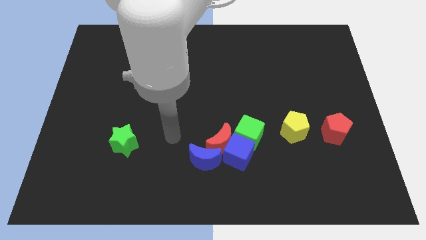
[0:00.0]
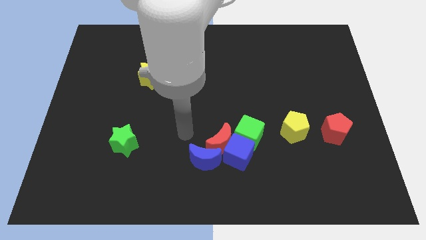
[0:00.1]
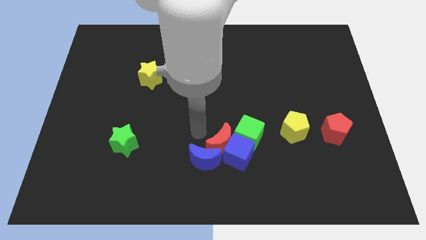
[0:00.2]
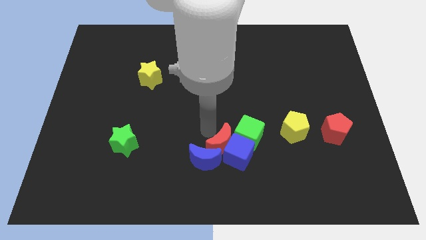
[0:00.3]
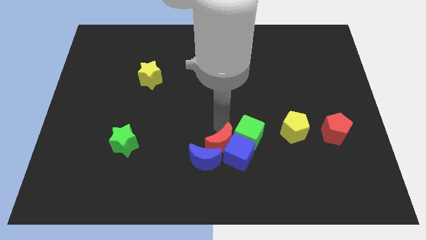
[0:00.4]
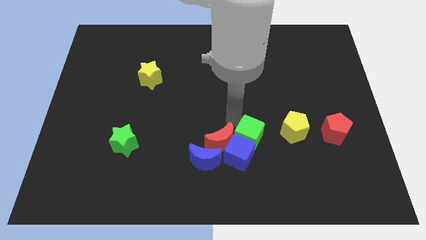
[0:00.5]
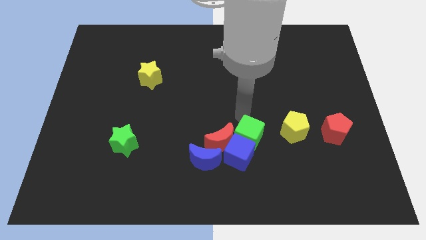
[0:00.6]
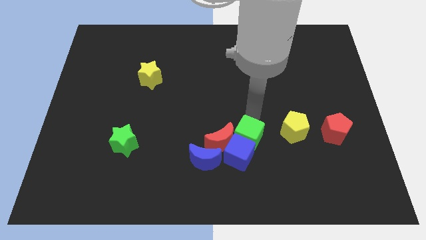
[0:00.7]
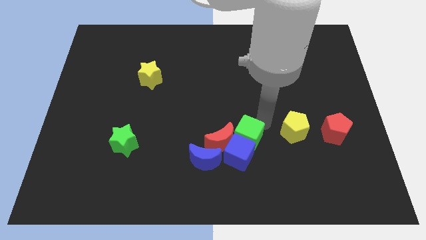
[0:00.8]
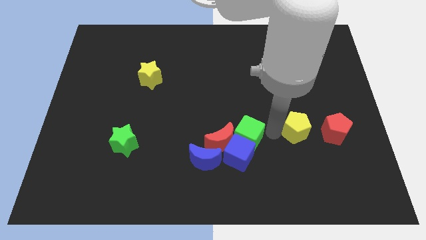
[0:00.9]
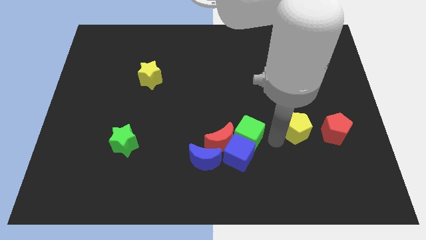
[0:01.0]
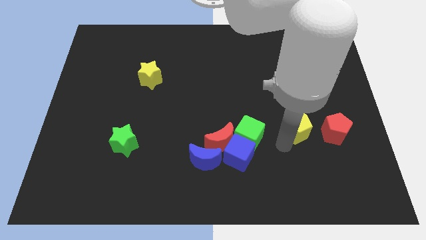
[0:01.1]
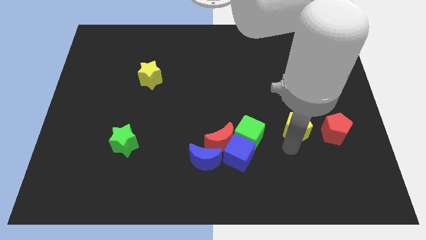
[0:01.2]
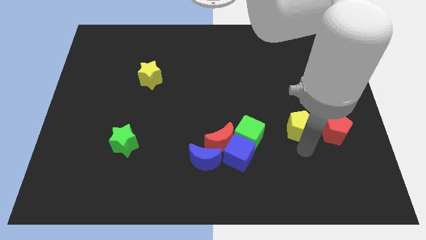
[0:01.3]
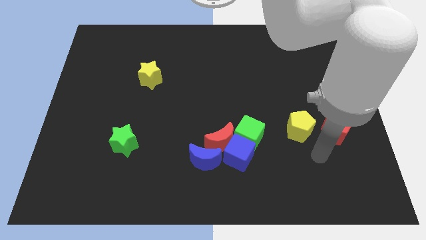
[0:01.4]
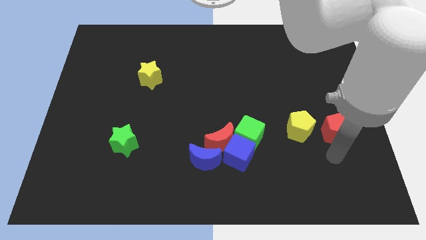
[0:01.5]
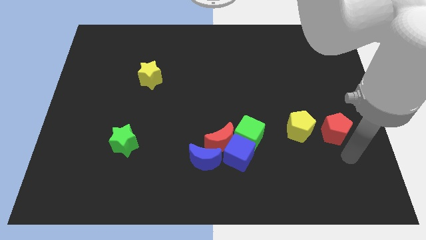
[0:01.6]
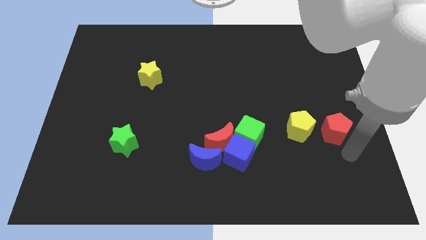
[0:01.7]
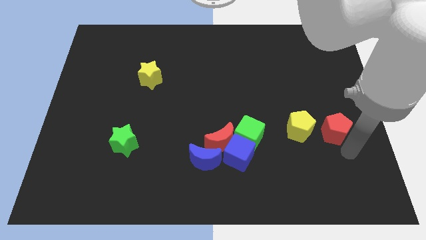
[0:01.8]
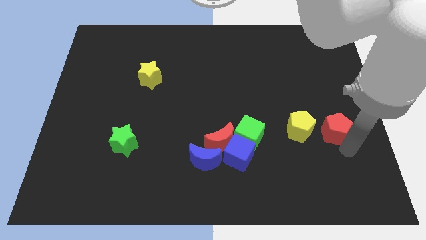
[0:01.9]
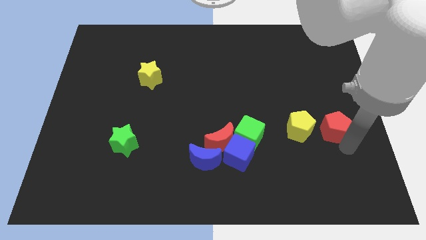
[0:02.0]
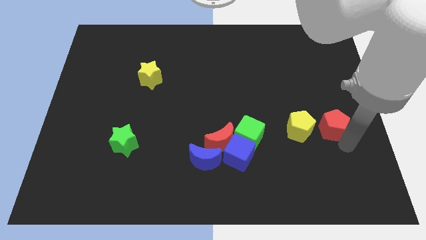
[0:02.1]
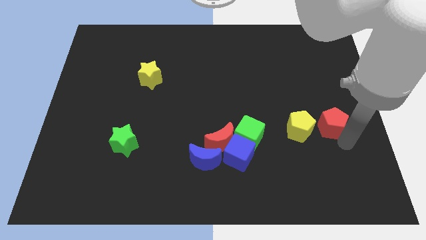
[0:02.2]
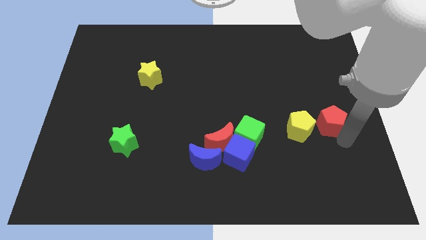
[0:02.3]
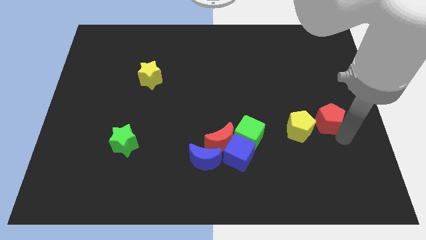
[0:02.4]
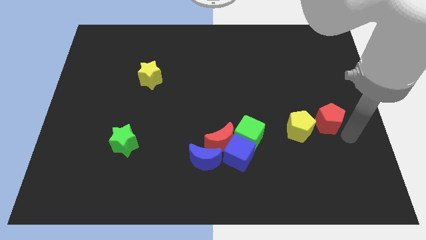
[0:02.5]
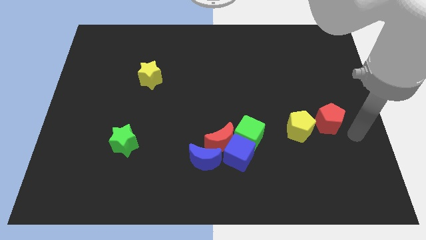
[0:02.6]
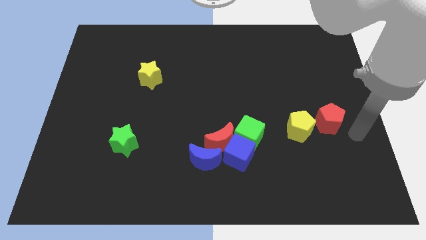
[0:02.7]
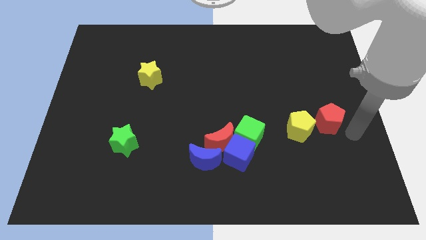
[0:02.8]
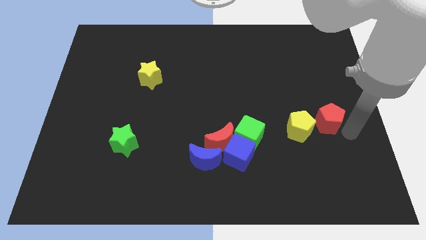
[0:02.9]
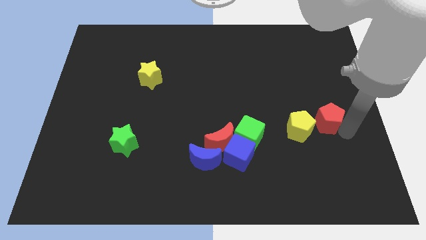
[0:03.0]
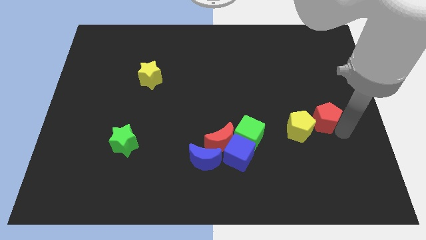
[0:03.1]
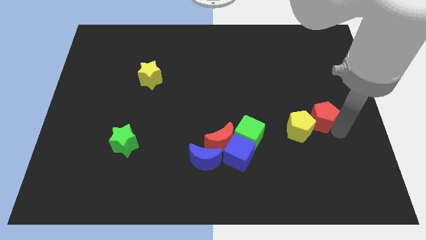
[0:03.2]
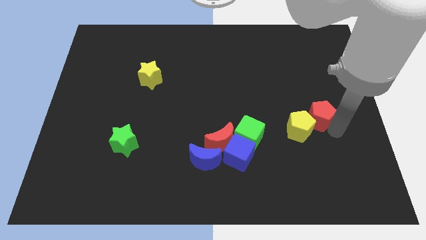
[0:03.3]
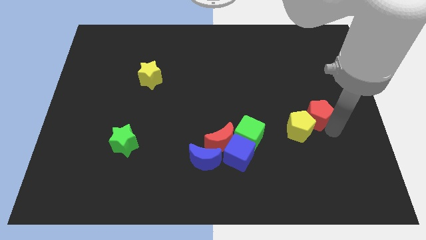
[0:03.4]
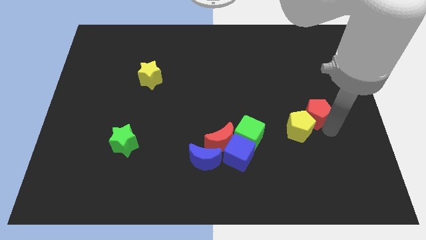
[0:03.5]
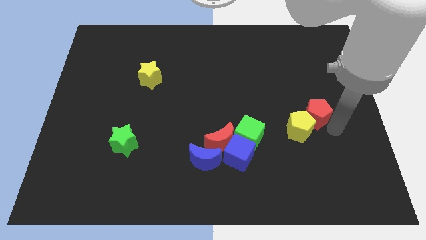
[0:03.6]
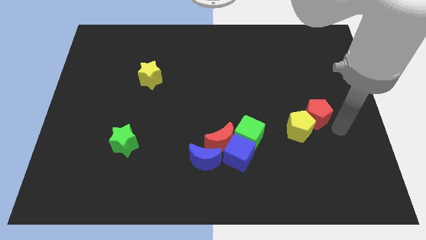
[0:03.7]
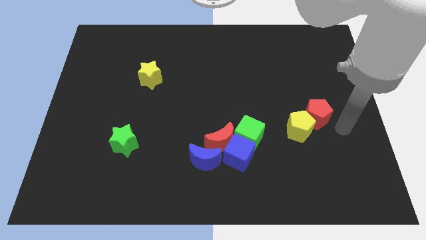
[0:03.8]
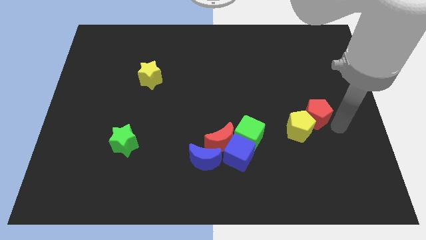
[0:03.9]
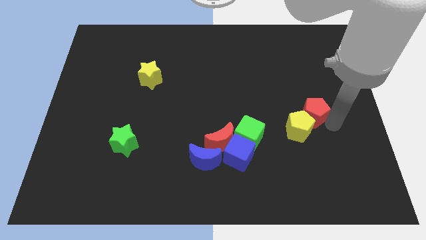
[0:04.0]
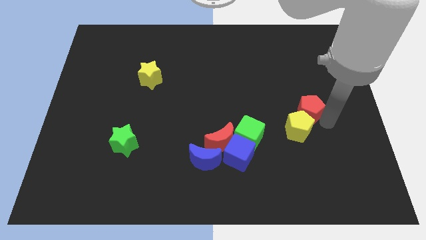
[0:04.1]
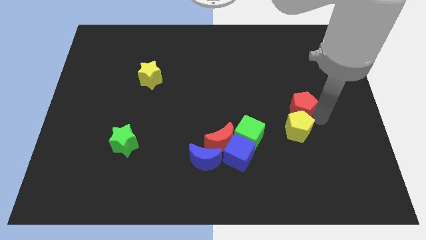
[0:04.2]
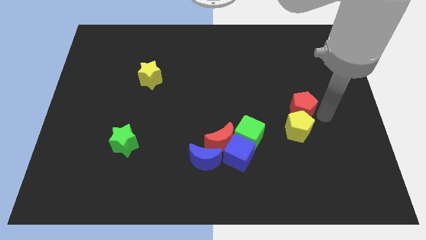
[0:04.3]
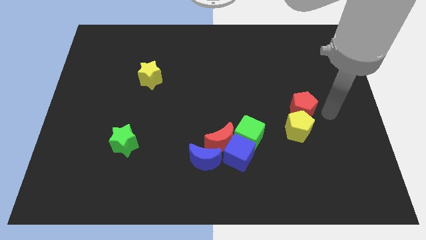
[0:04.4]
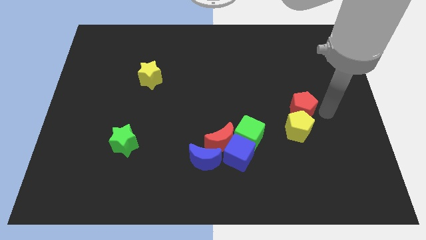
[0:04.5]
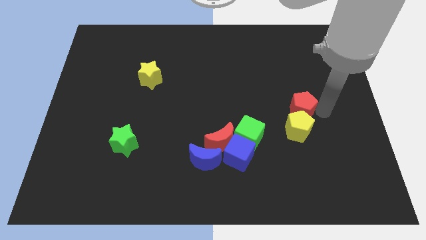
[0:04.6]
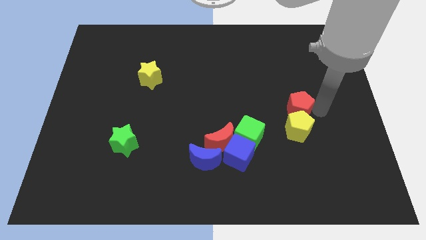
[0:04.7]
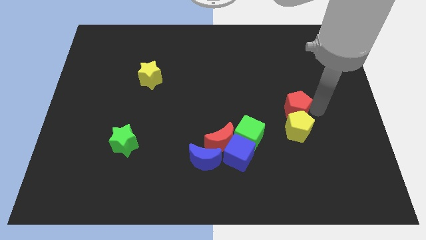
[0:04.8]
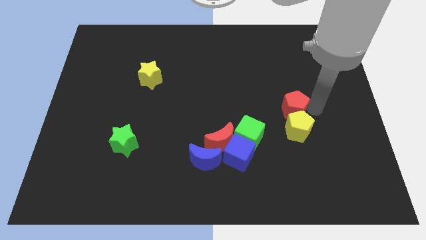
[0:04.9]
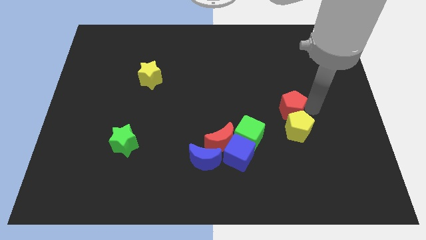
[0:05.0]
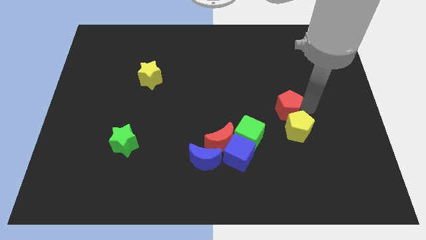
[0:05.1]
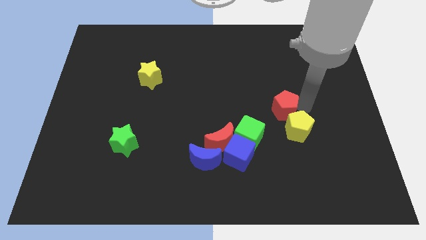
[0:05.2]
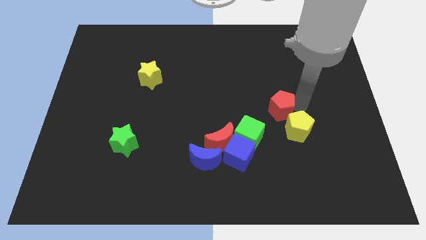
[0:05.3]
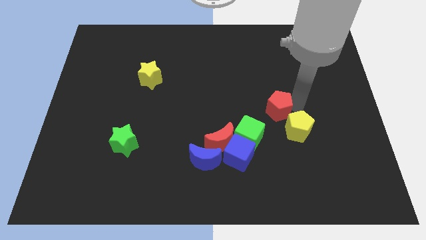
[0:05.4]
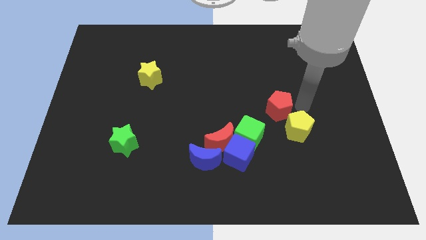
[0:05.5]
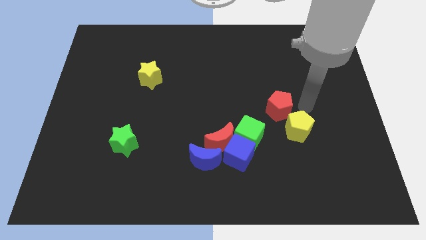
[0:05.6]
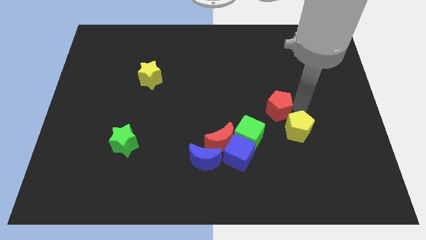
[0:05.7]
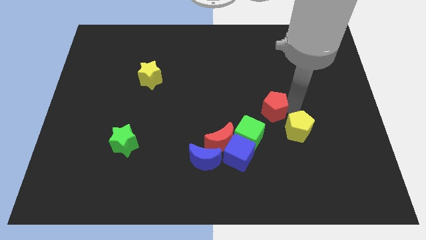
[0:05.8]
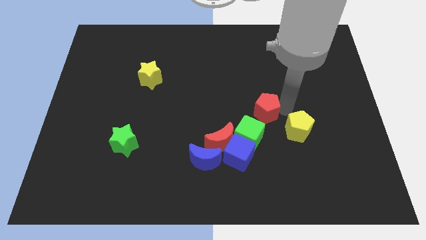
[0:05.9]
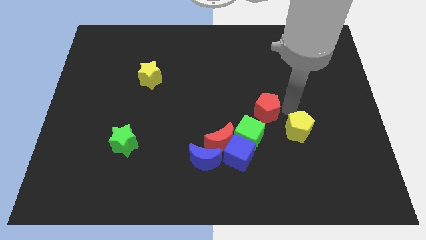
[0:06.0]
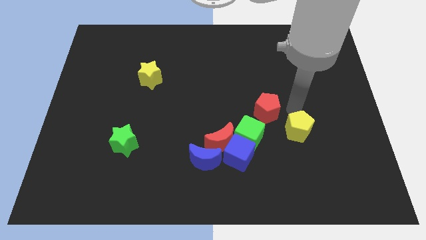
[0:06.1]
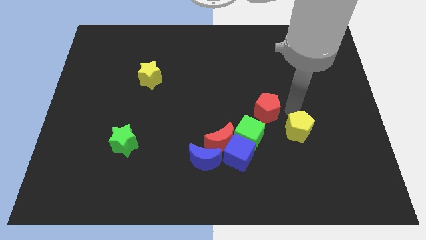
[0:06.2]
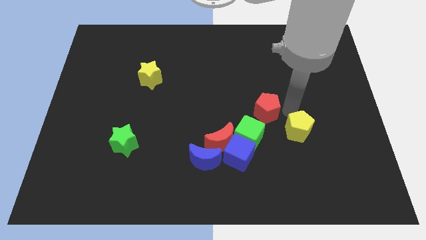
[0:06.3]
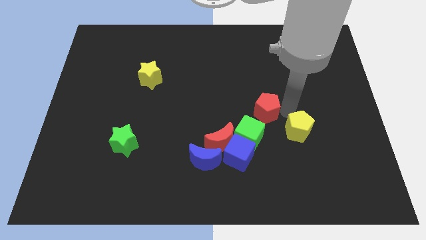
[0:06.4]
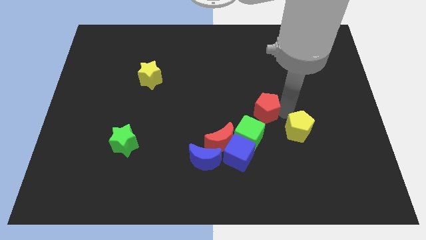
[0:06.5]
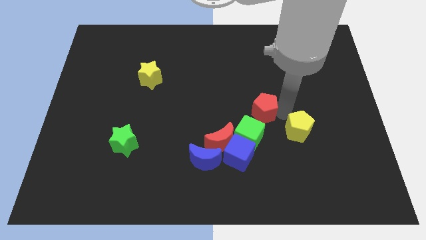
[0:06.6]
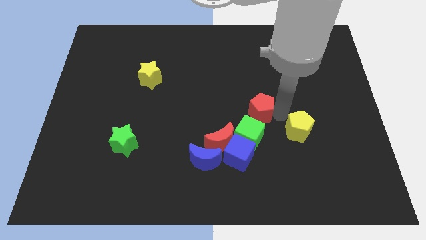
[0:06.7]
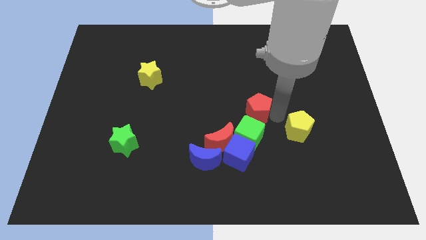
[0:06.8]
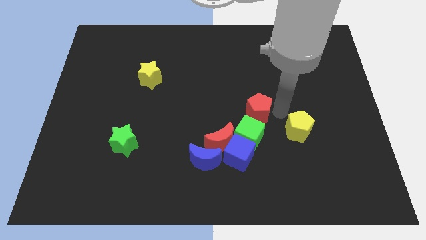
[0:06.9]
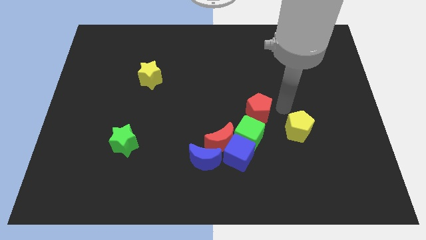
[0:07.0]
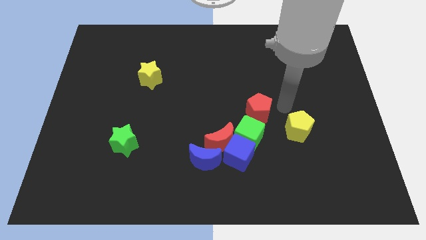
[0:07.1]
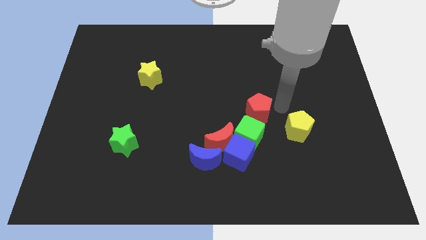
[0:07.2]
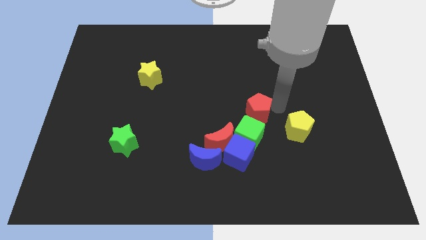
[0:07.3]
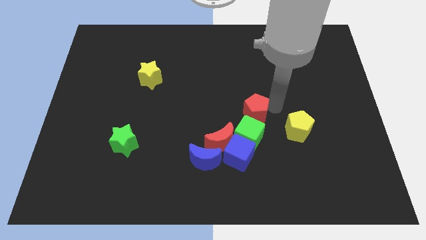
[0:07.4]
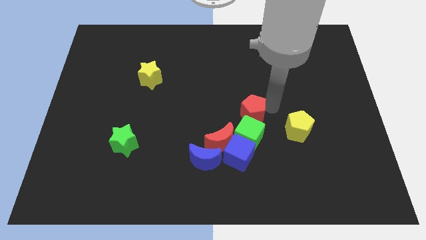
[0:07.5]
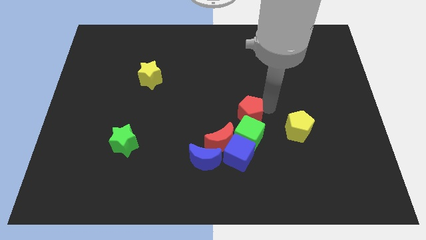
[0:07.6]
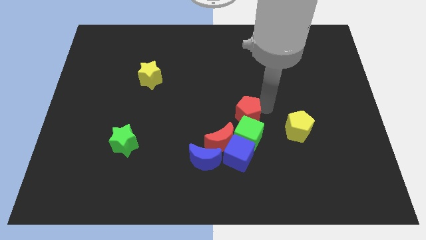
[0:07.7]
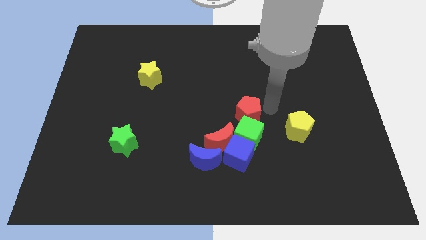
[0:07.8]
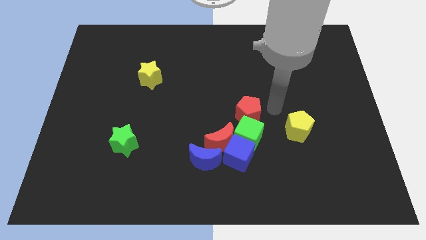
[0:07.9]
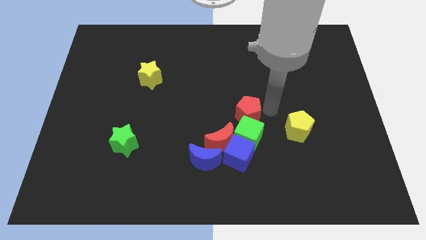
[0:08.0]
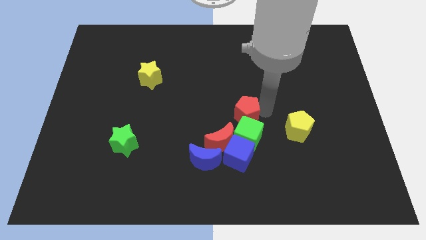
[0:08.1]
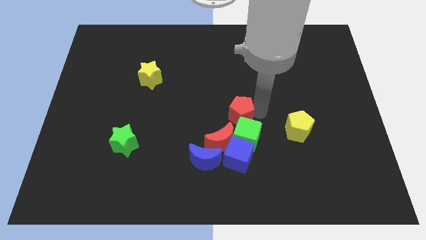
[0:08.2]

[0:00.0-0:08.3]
slide the red pentagon left
